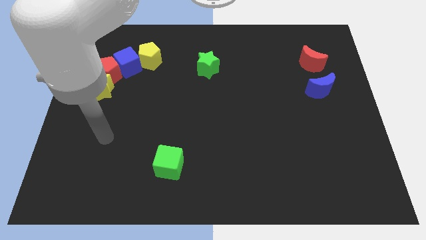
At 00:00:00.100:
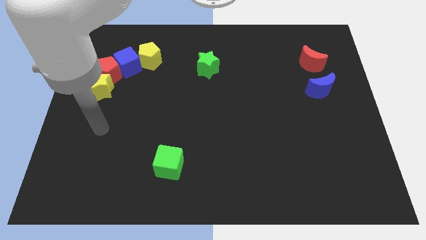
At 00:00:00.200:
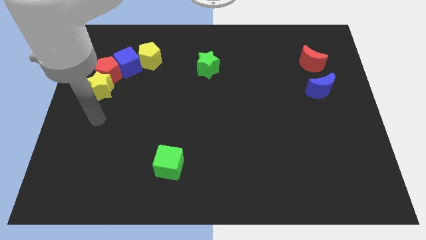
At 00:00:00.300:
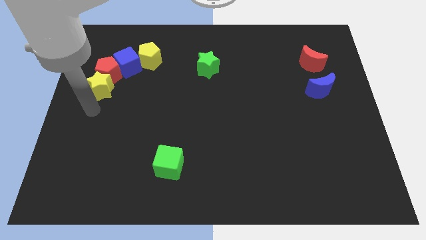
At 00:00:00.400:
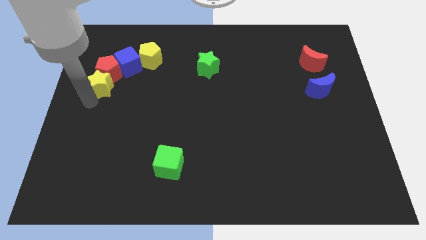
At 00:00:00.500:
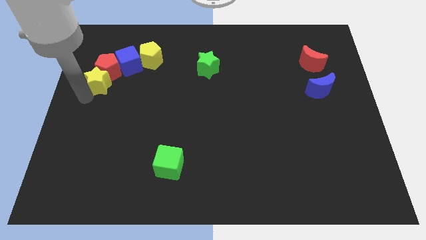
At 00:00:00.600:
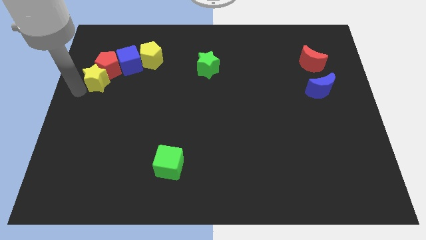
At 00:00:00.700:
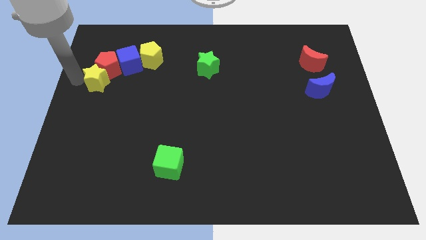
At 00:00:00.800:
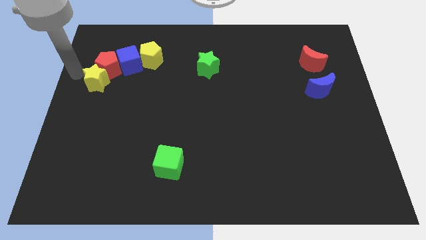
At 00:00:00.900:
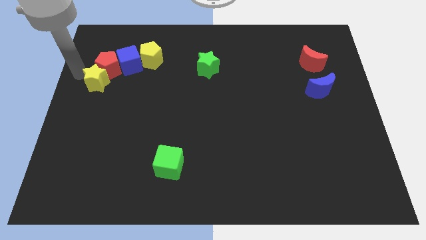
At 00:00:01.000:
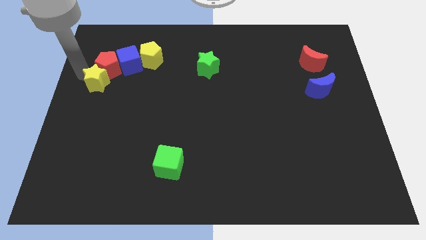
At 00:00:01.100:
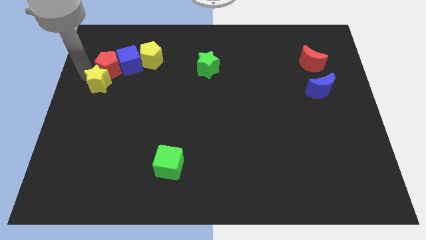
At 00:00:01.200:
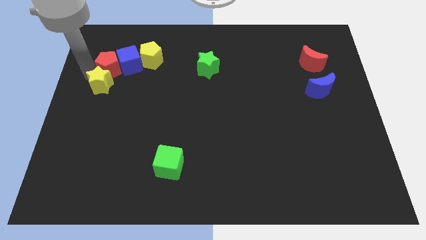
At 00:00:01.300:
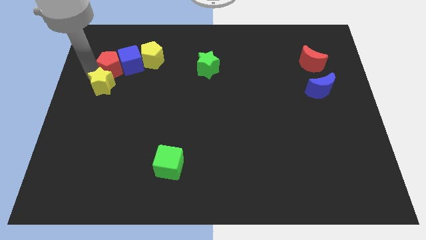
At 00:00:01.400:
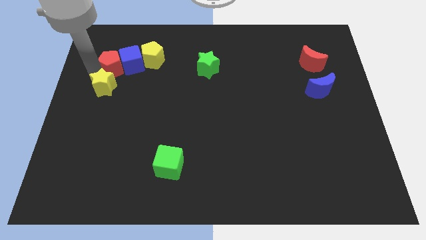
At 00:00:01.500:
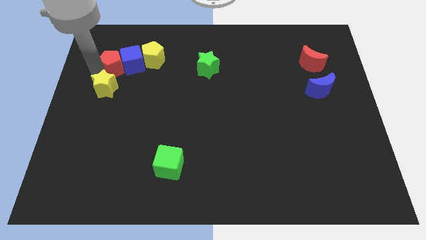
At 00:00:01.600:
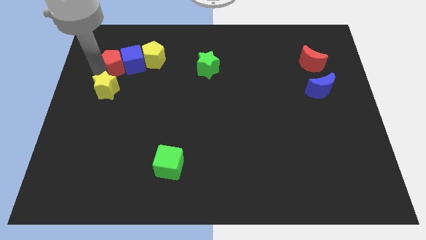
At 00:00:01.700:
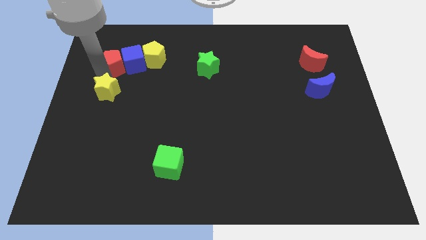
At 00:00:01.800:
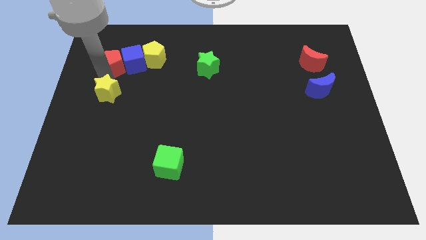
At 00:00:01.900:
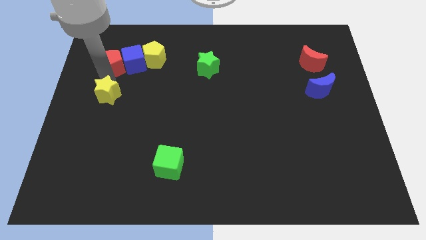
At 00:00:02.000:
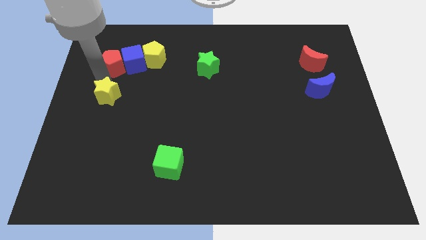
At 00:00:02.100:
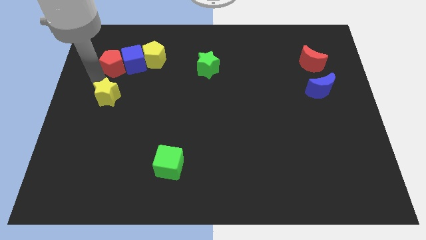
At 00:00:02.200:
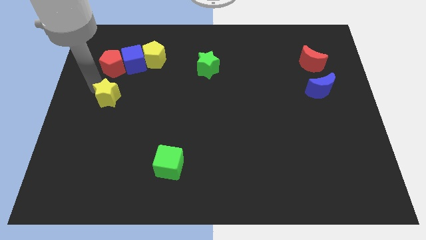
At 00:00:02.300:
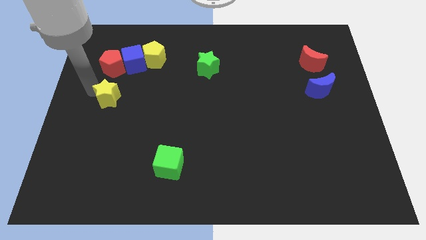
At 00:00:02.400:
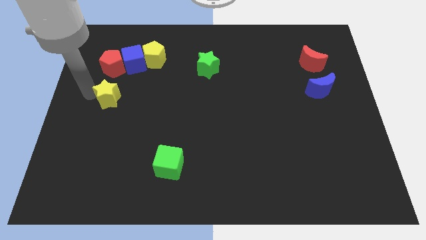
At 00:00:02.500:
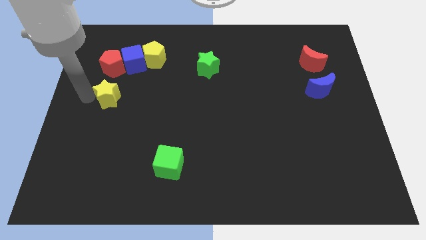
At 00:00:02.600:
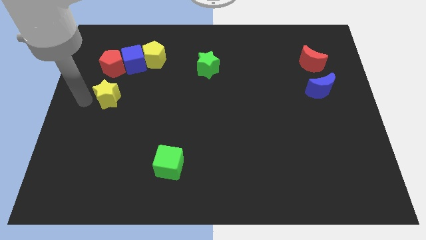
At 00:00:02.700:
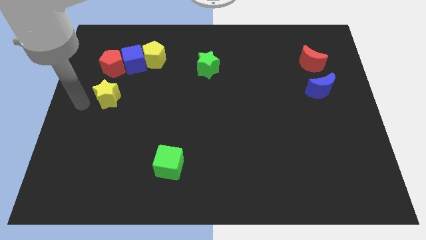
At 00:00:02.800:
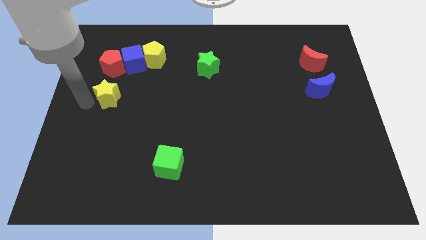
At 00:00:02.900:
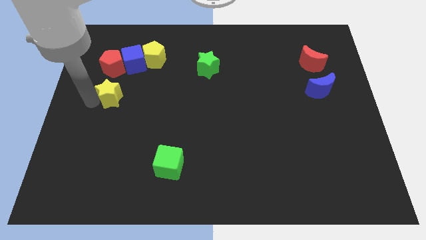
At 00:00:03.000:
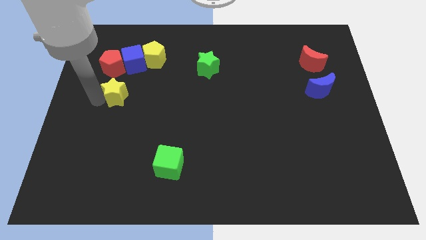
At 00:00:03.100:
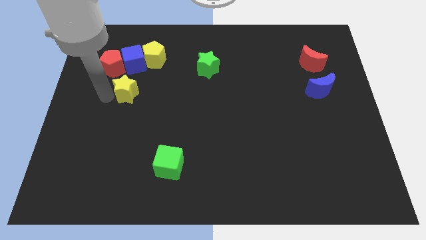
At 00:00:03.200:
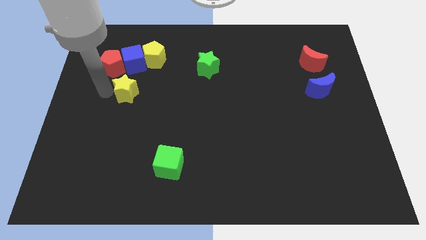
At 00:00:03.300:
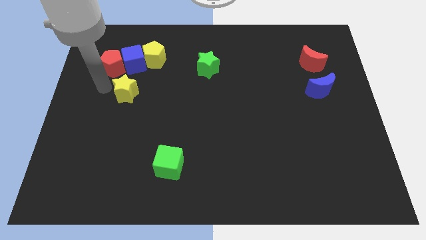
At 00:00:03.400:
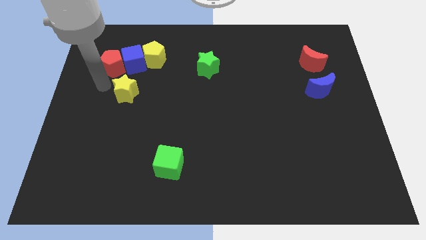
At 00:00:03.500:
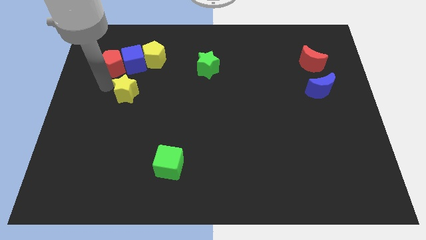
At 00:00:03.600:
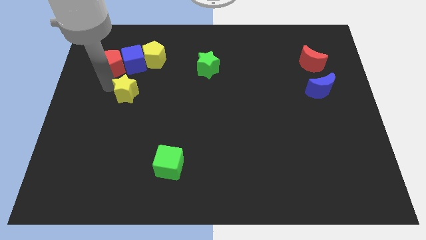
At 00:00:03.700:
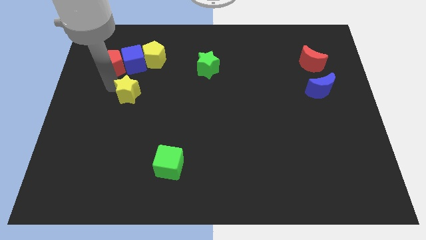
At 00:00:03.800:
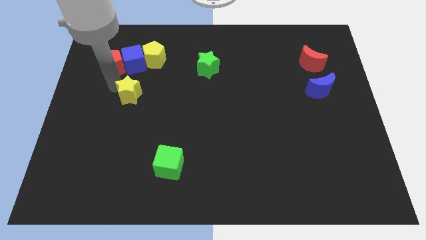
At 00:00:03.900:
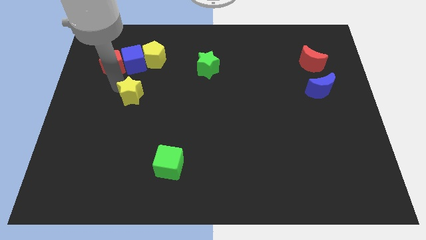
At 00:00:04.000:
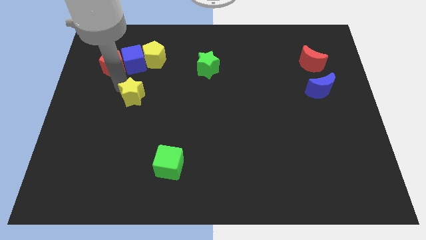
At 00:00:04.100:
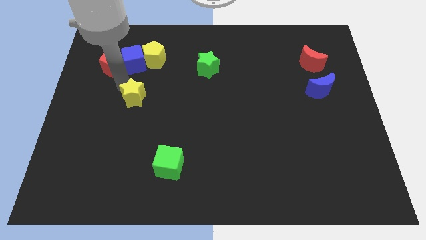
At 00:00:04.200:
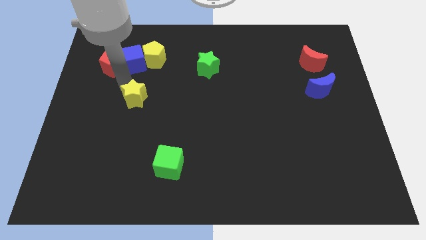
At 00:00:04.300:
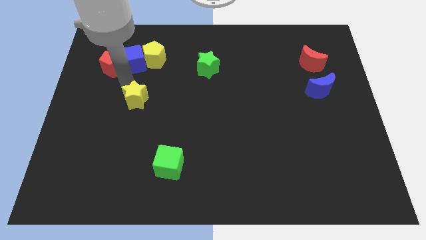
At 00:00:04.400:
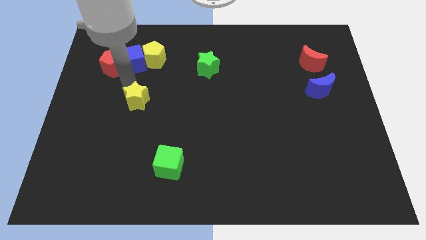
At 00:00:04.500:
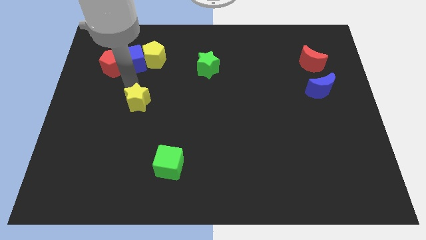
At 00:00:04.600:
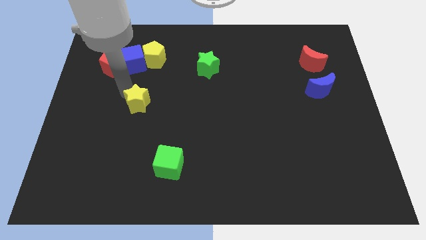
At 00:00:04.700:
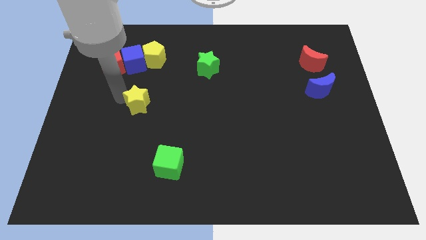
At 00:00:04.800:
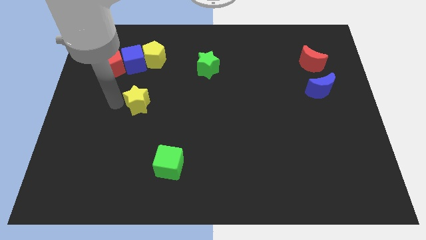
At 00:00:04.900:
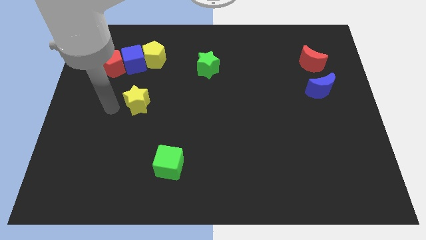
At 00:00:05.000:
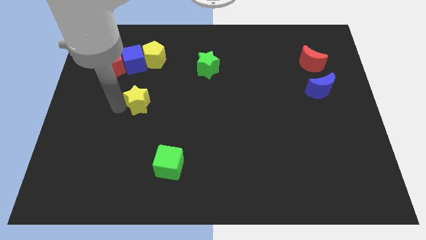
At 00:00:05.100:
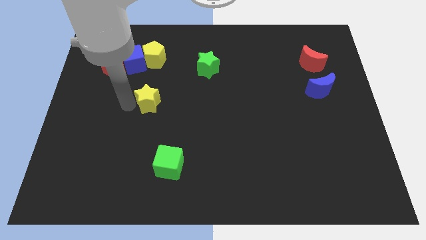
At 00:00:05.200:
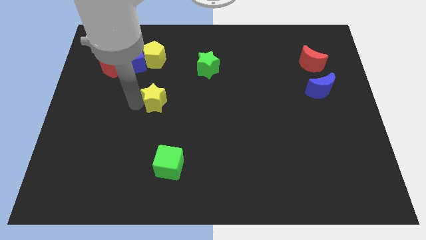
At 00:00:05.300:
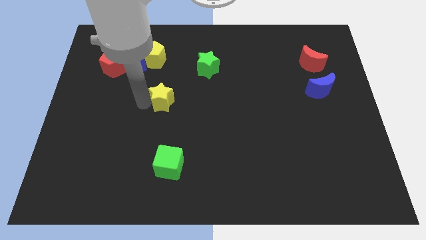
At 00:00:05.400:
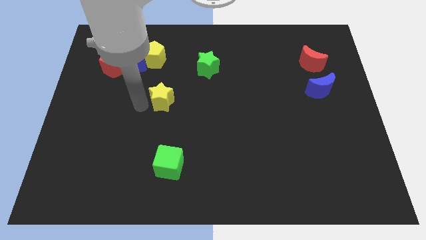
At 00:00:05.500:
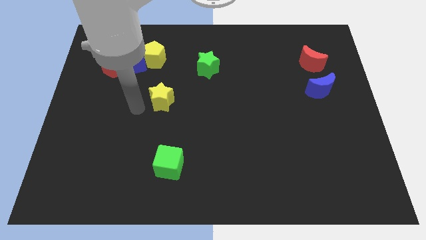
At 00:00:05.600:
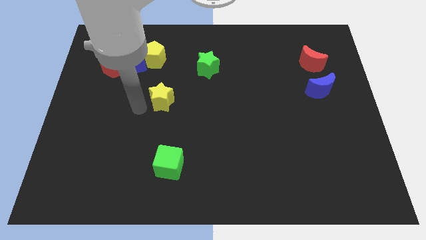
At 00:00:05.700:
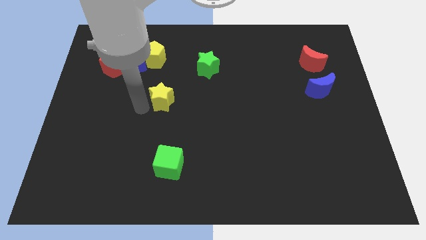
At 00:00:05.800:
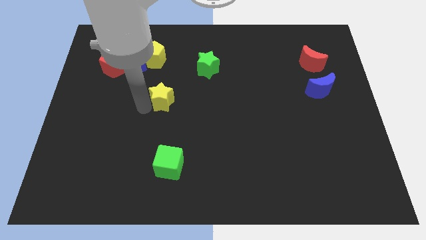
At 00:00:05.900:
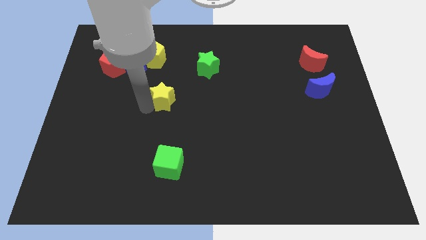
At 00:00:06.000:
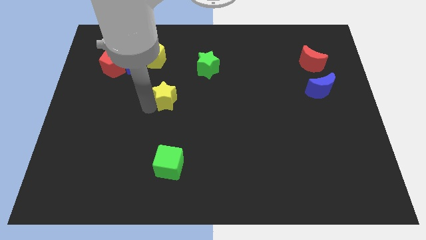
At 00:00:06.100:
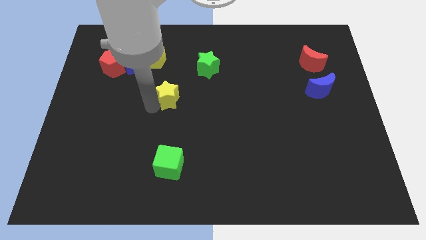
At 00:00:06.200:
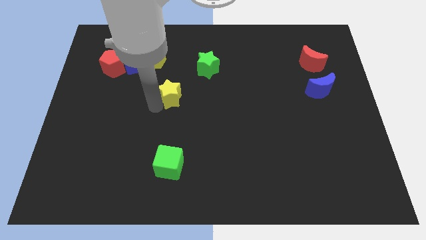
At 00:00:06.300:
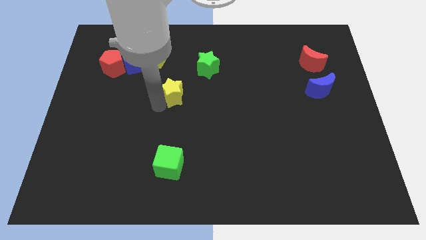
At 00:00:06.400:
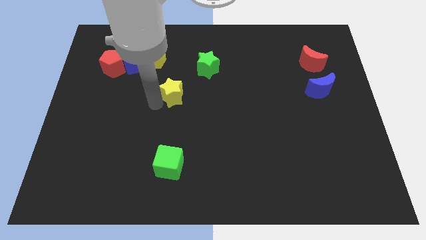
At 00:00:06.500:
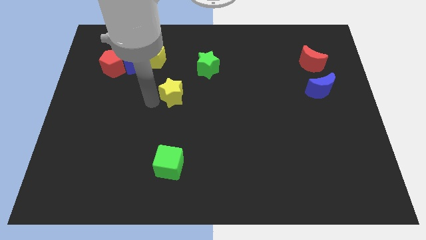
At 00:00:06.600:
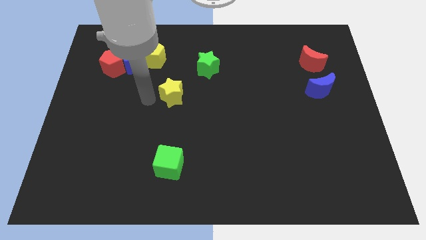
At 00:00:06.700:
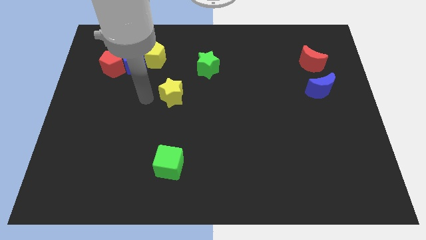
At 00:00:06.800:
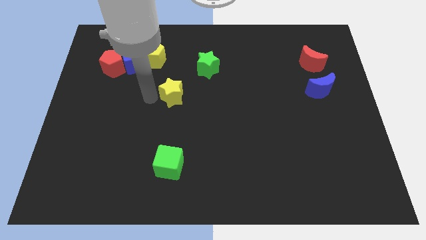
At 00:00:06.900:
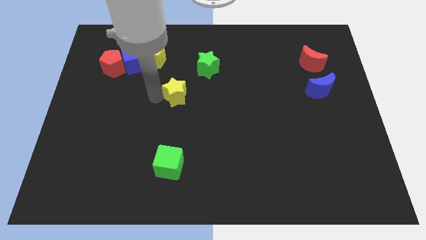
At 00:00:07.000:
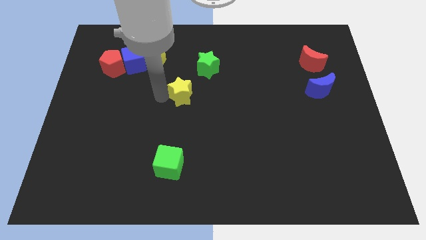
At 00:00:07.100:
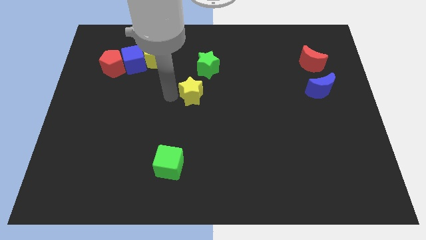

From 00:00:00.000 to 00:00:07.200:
move the yellow star right

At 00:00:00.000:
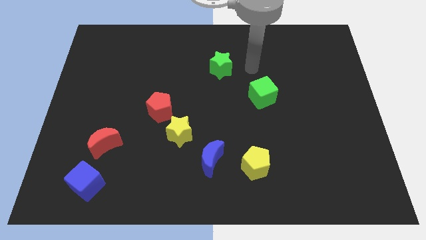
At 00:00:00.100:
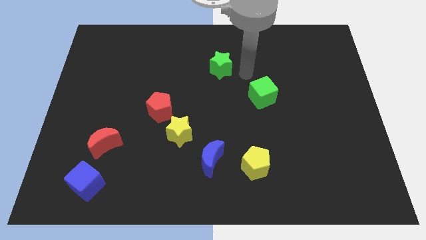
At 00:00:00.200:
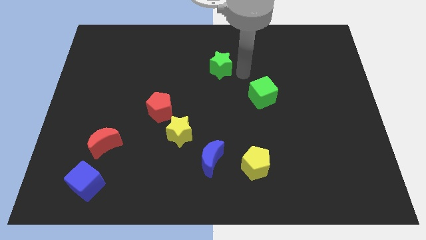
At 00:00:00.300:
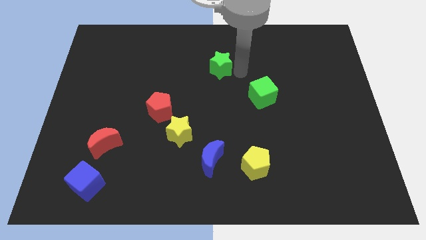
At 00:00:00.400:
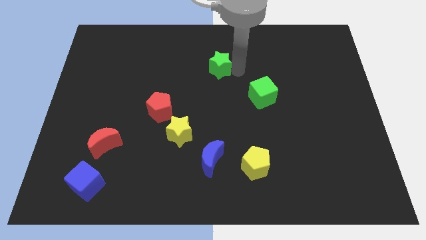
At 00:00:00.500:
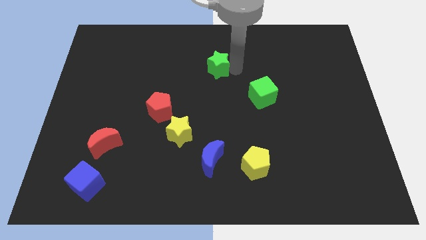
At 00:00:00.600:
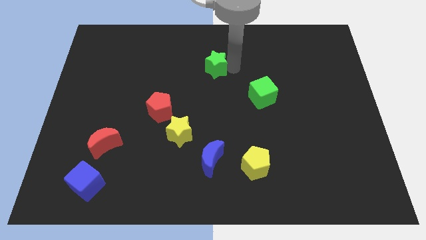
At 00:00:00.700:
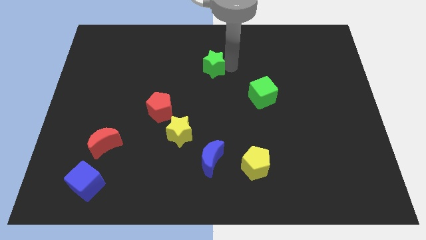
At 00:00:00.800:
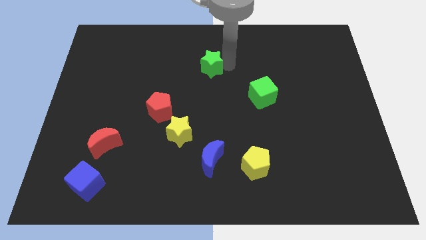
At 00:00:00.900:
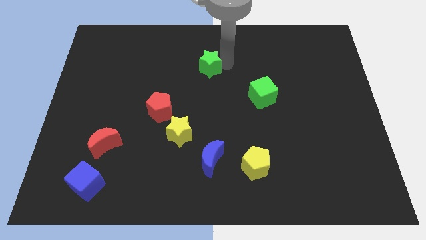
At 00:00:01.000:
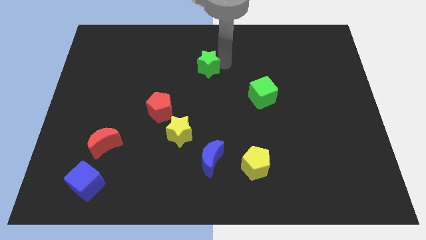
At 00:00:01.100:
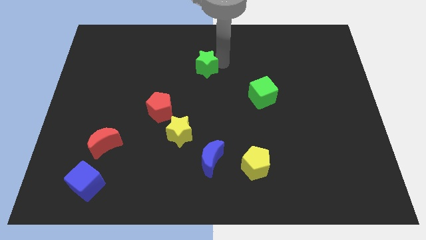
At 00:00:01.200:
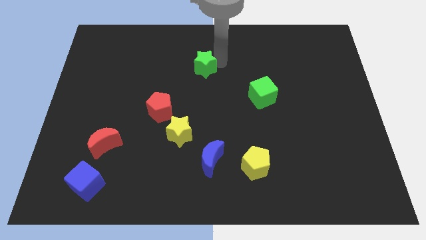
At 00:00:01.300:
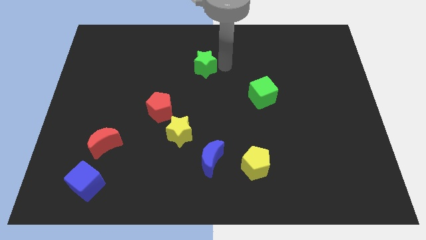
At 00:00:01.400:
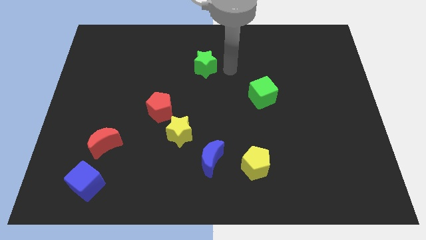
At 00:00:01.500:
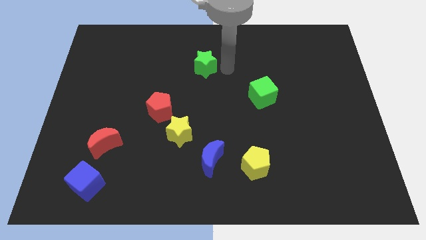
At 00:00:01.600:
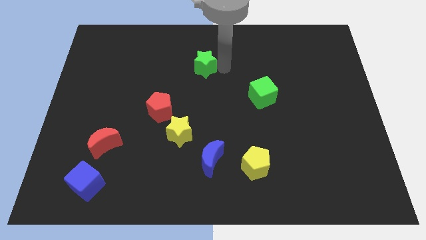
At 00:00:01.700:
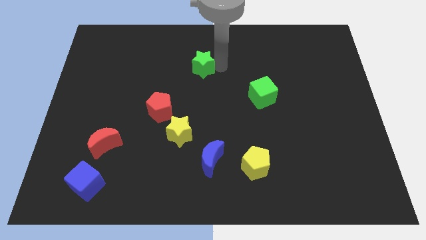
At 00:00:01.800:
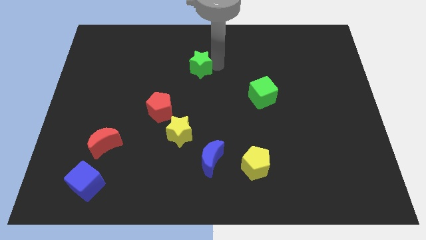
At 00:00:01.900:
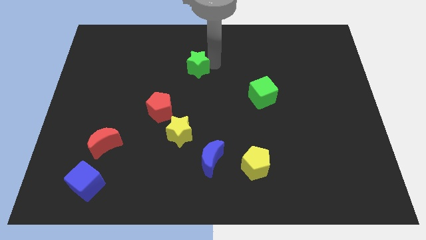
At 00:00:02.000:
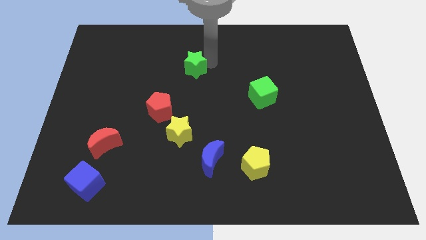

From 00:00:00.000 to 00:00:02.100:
slightly move the green star left
